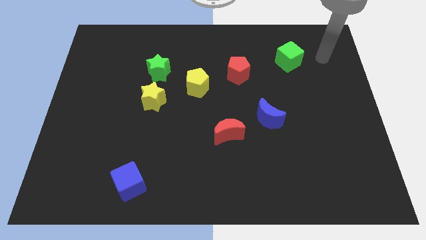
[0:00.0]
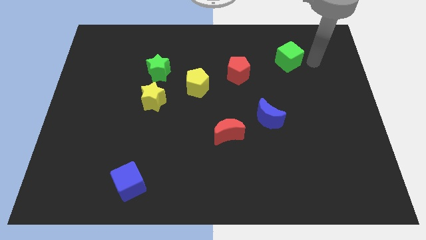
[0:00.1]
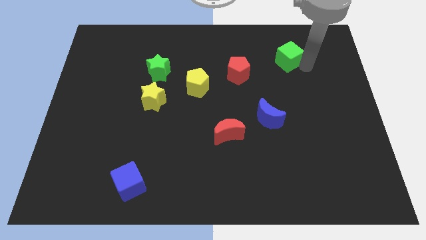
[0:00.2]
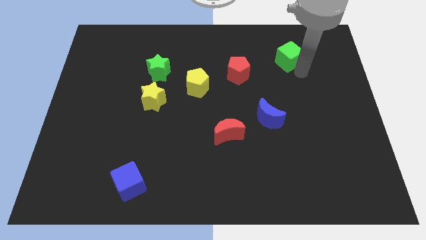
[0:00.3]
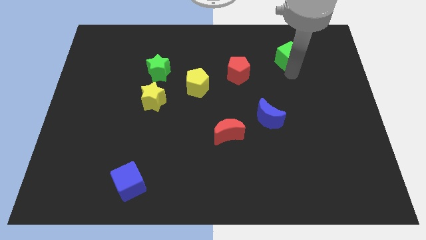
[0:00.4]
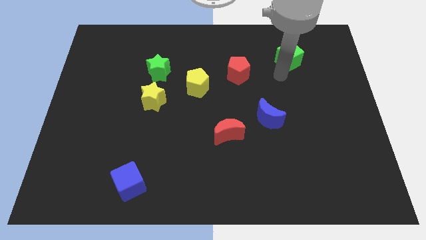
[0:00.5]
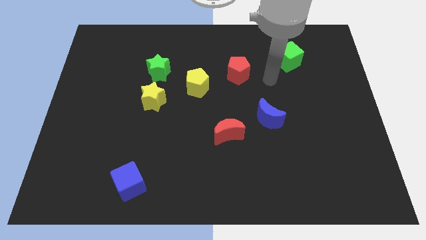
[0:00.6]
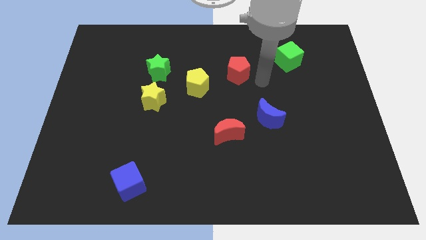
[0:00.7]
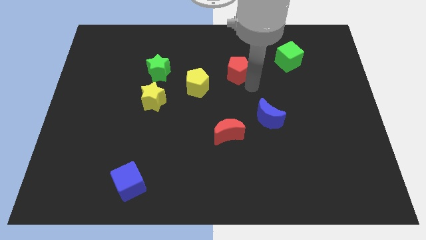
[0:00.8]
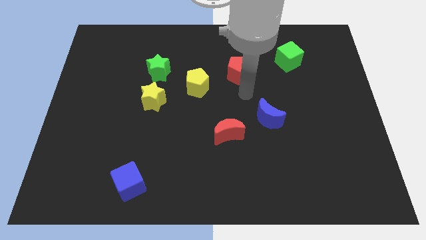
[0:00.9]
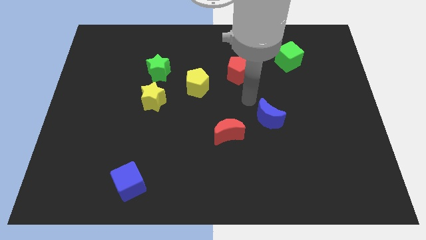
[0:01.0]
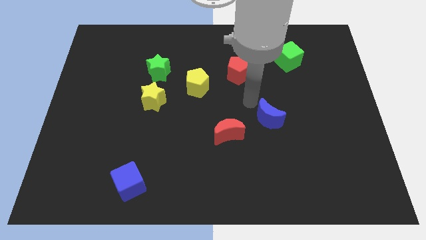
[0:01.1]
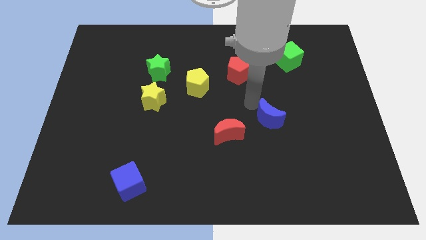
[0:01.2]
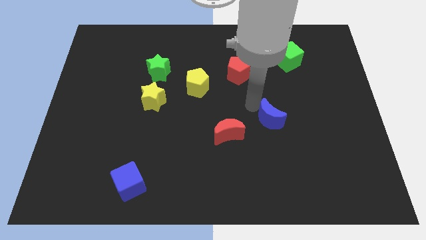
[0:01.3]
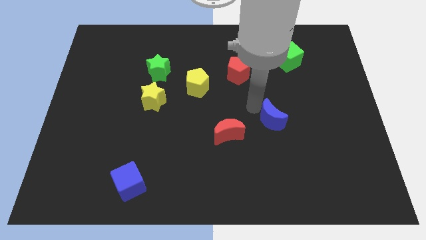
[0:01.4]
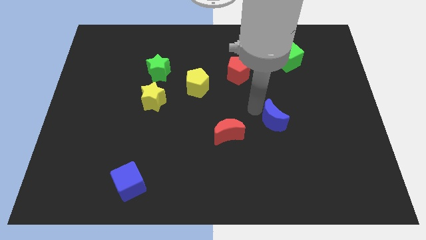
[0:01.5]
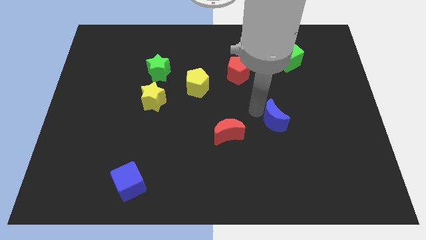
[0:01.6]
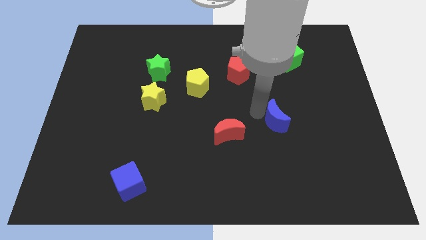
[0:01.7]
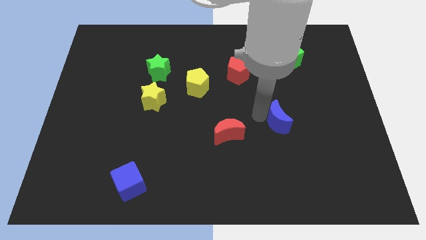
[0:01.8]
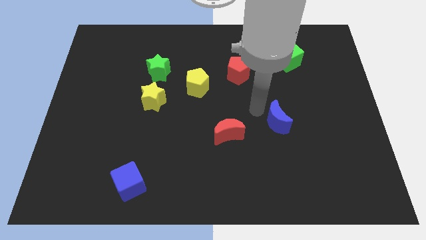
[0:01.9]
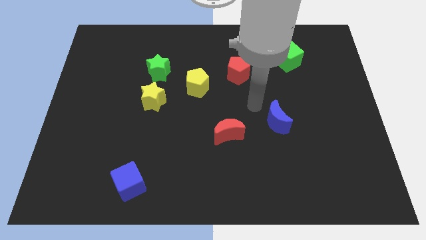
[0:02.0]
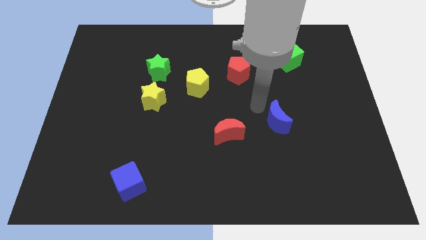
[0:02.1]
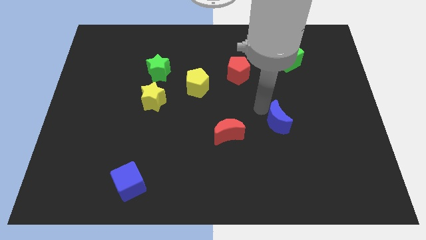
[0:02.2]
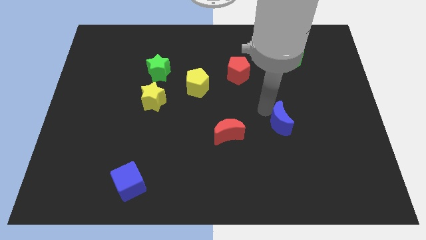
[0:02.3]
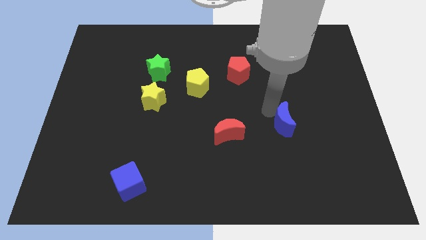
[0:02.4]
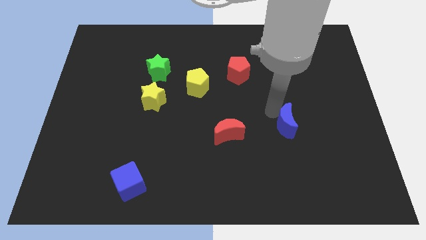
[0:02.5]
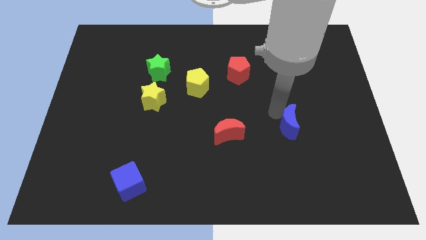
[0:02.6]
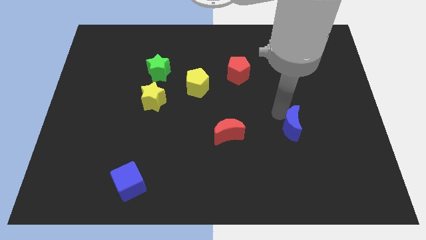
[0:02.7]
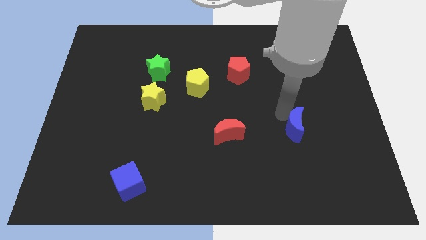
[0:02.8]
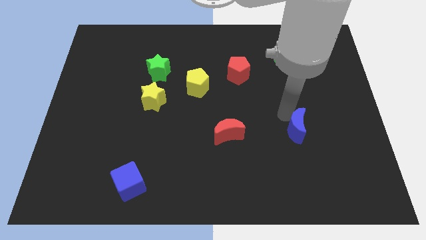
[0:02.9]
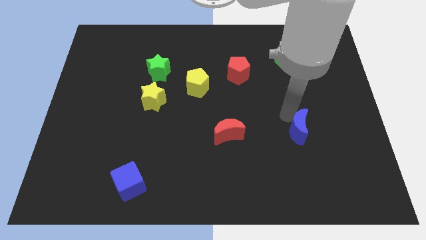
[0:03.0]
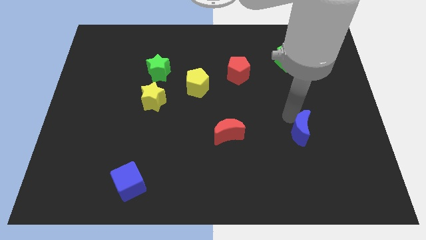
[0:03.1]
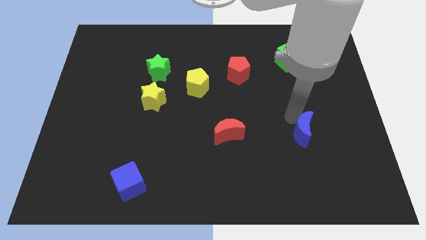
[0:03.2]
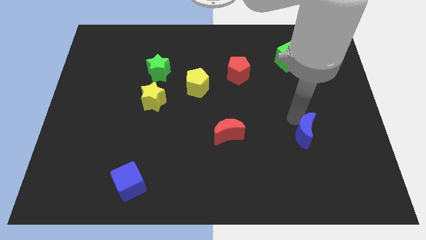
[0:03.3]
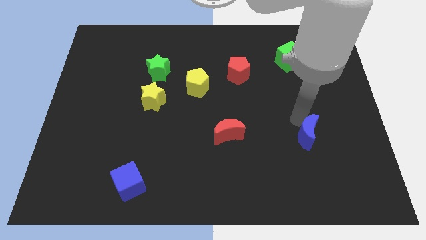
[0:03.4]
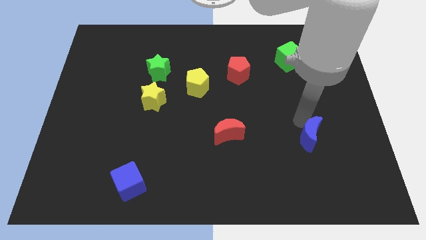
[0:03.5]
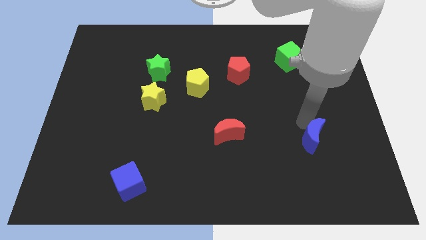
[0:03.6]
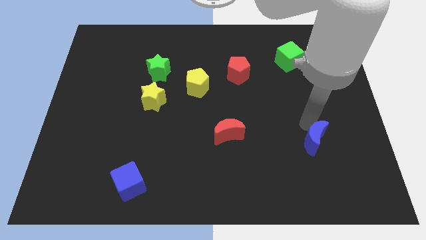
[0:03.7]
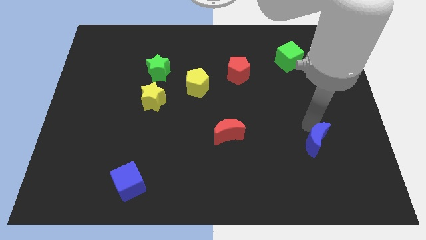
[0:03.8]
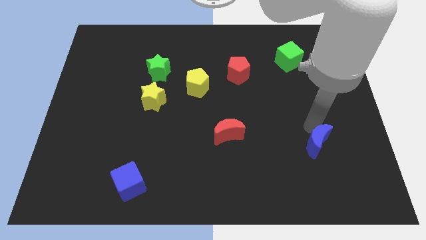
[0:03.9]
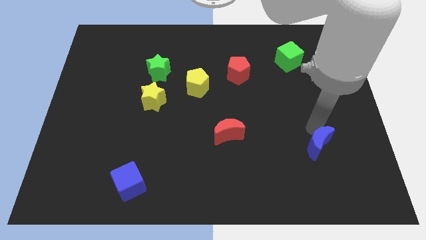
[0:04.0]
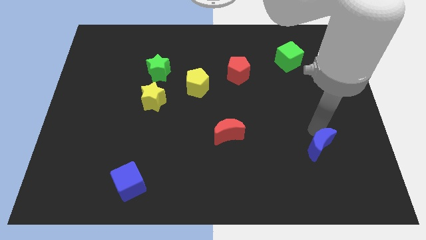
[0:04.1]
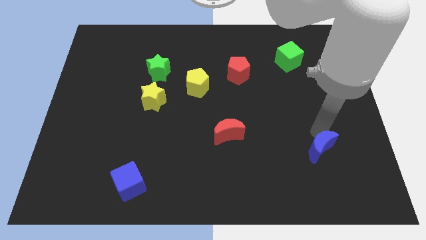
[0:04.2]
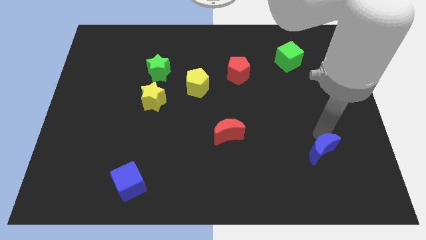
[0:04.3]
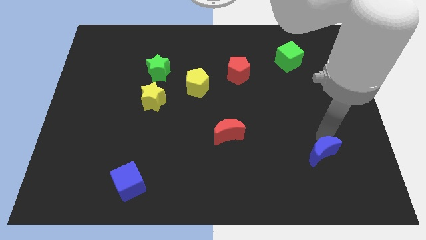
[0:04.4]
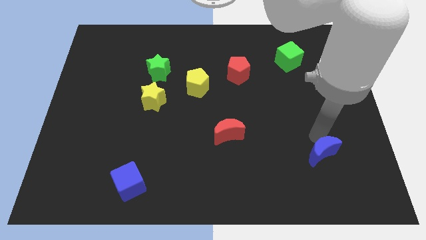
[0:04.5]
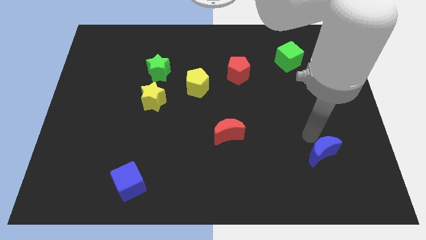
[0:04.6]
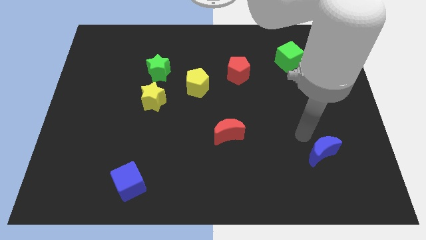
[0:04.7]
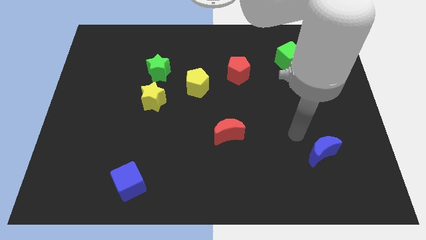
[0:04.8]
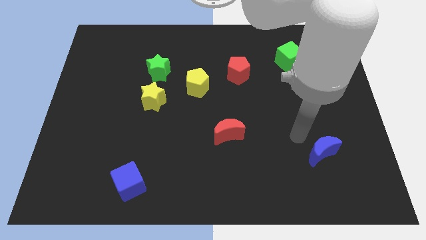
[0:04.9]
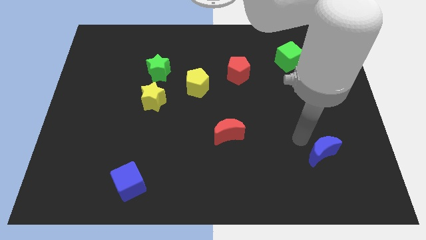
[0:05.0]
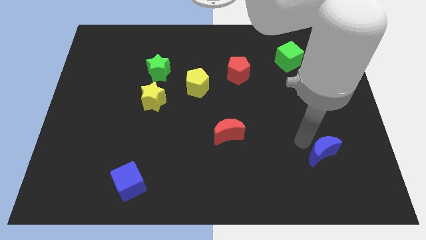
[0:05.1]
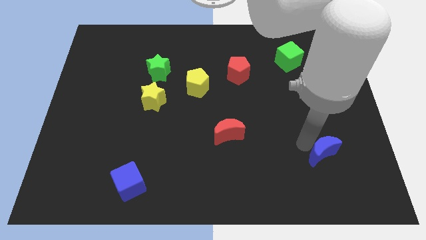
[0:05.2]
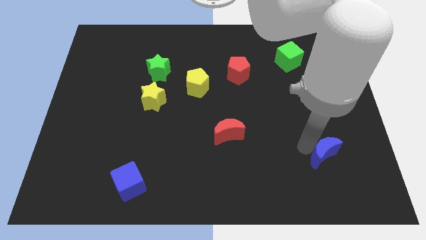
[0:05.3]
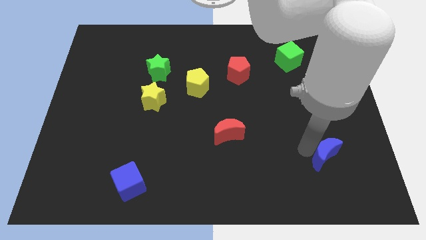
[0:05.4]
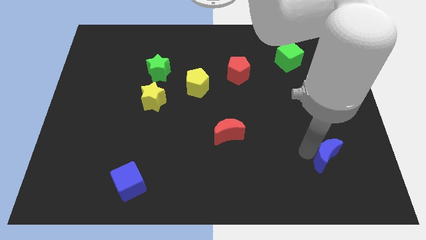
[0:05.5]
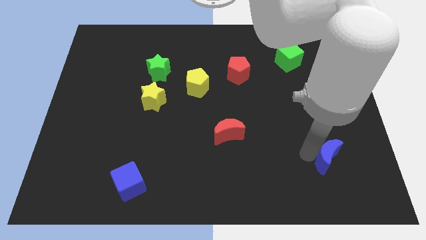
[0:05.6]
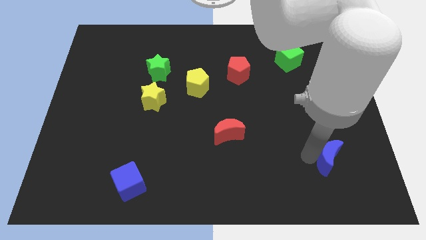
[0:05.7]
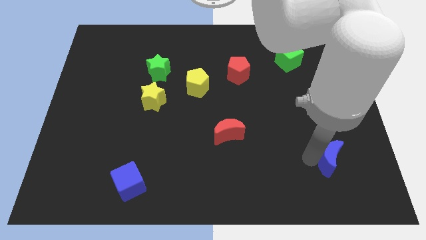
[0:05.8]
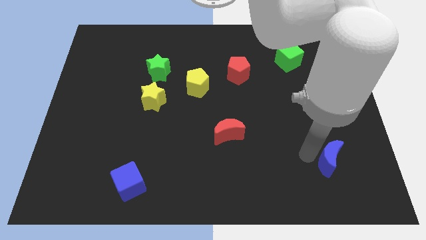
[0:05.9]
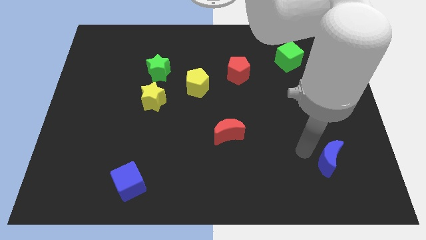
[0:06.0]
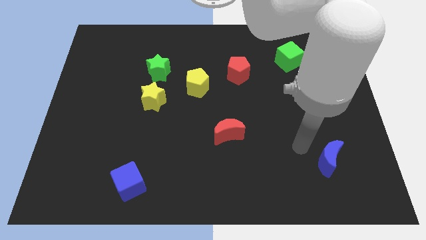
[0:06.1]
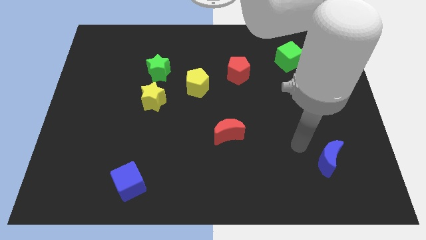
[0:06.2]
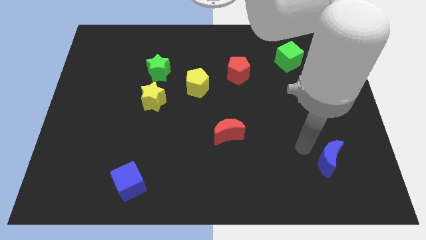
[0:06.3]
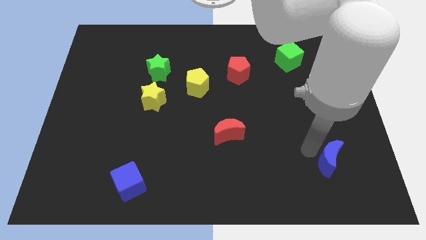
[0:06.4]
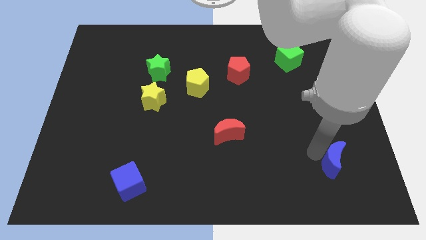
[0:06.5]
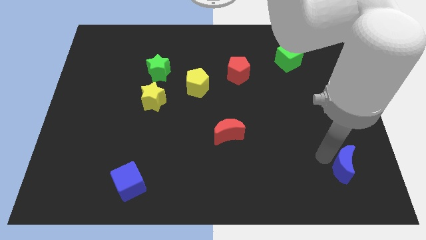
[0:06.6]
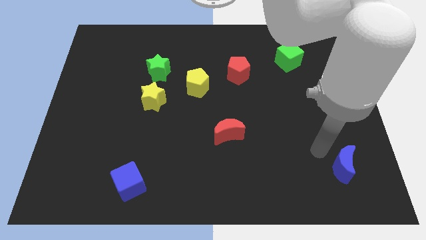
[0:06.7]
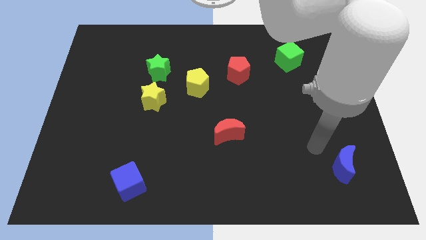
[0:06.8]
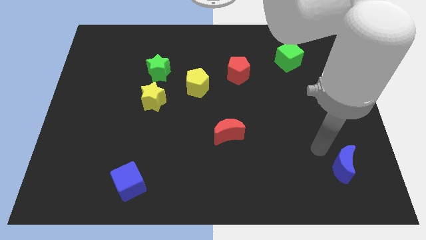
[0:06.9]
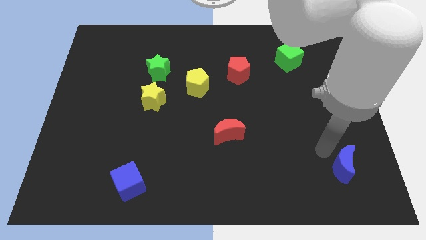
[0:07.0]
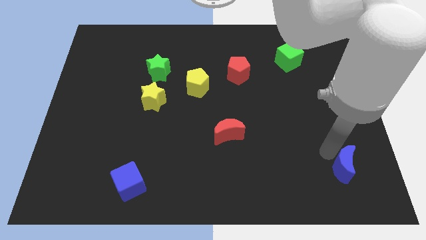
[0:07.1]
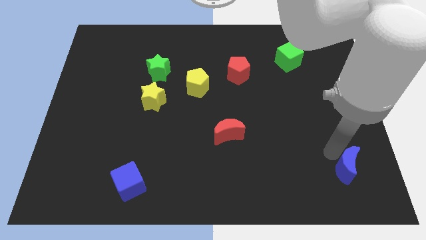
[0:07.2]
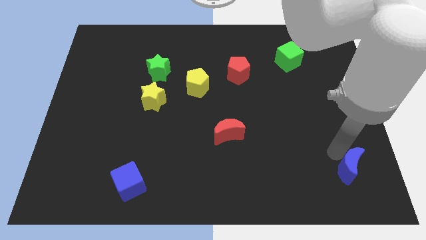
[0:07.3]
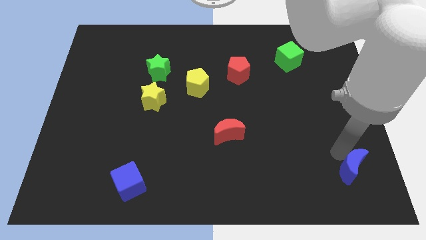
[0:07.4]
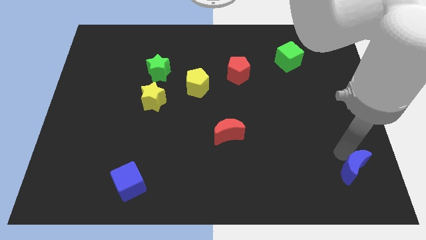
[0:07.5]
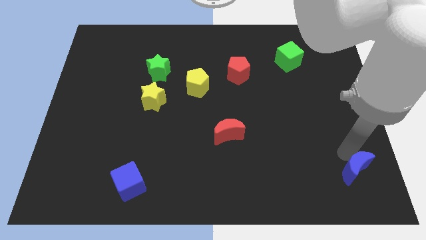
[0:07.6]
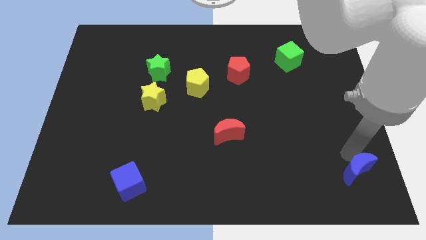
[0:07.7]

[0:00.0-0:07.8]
put the blue moon to the lower right corner
